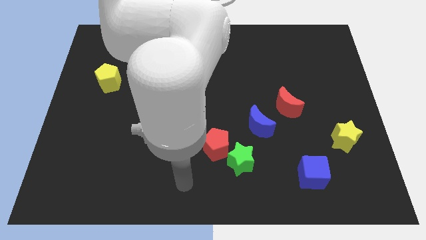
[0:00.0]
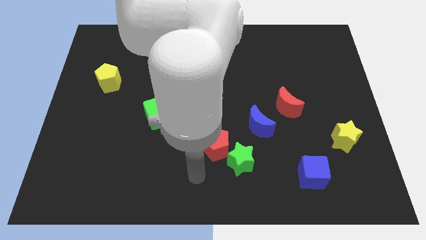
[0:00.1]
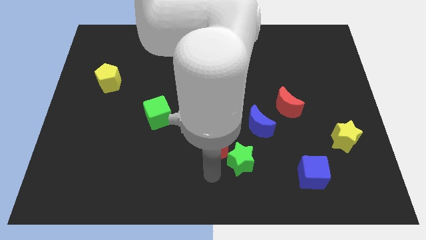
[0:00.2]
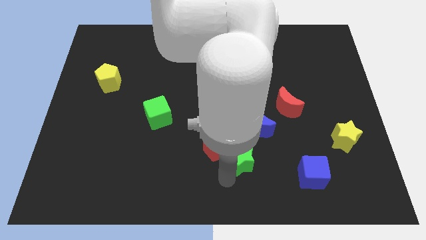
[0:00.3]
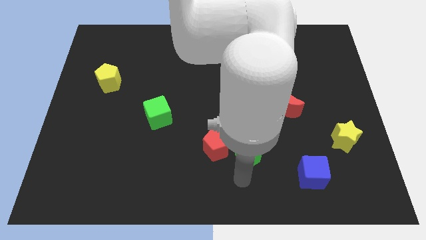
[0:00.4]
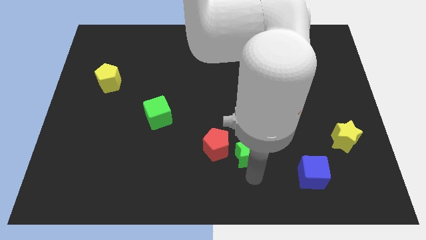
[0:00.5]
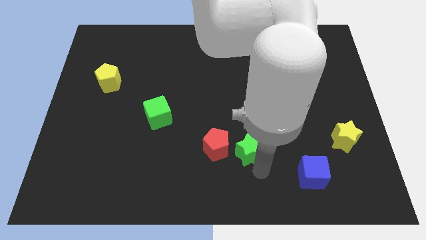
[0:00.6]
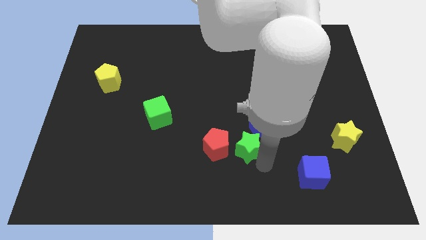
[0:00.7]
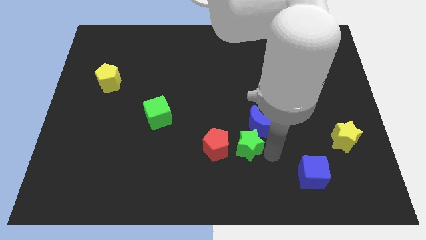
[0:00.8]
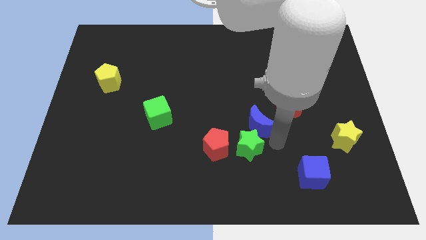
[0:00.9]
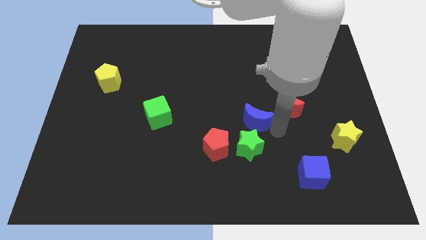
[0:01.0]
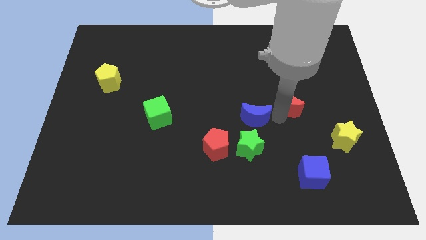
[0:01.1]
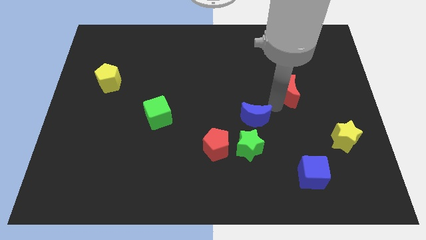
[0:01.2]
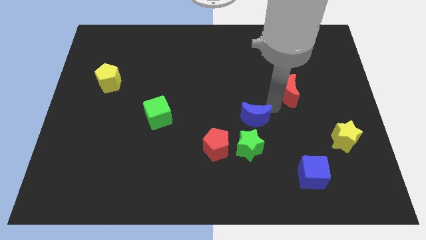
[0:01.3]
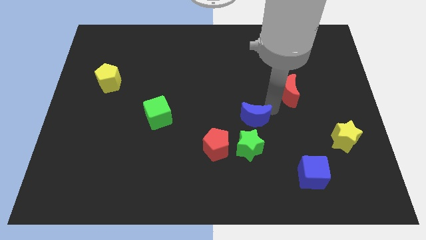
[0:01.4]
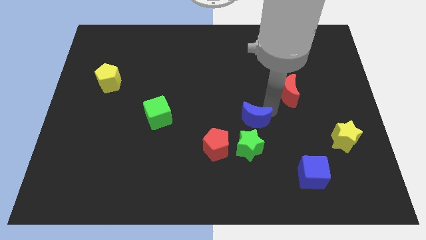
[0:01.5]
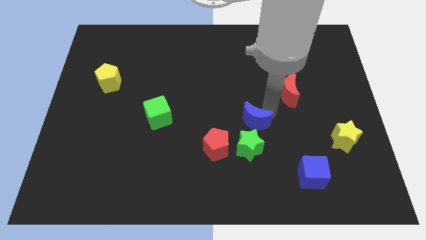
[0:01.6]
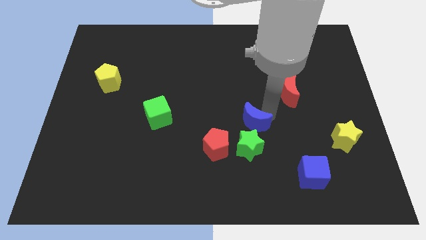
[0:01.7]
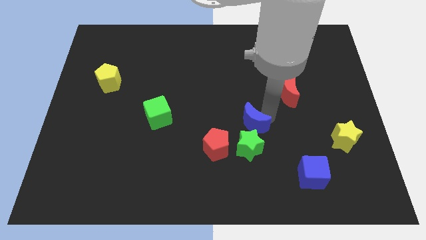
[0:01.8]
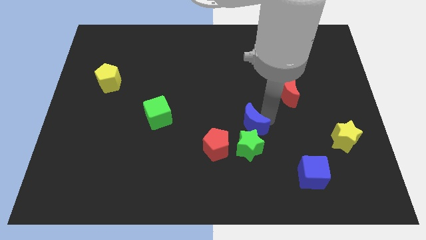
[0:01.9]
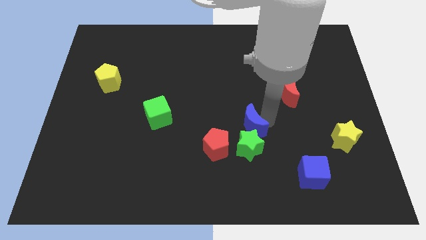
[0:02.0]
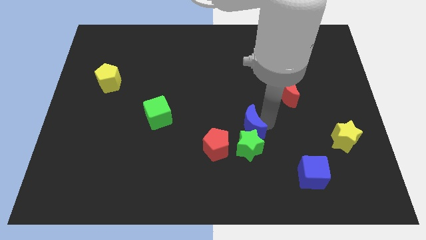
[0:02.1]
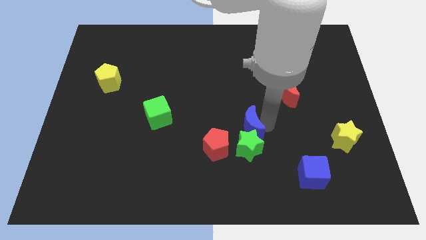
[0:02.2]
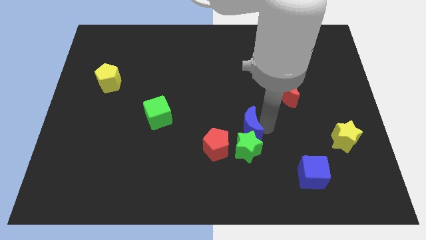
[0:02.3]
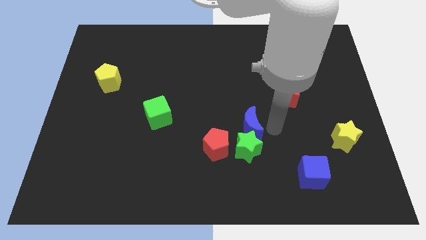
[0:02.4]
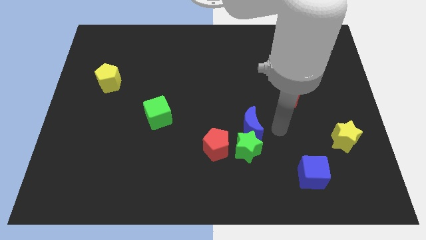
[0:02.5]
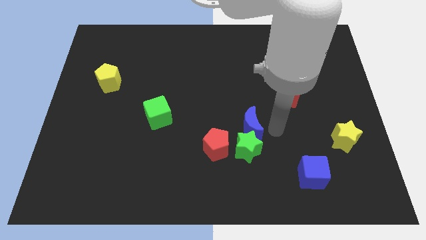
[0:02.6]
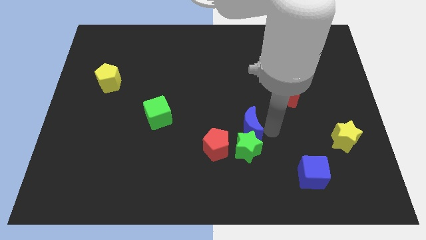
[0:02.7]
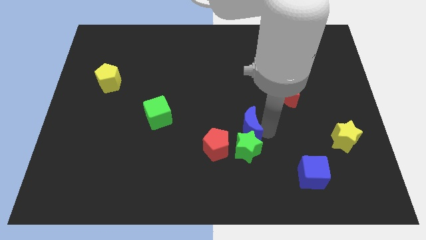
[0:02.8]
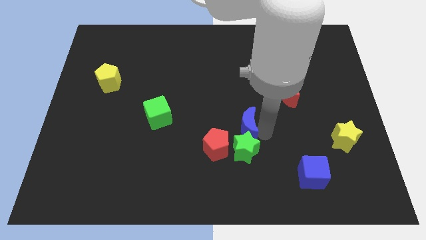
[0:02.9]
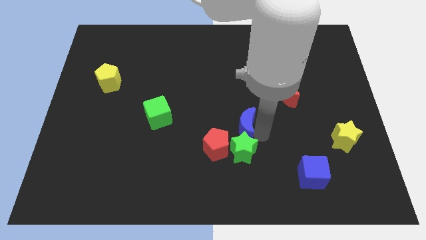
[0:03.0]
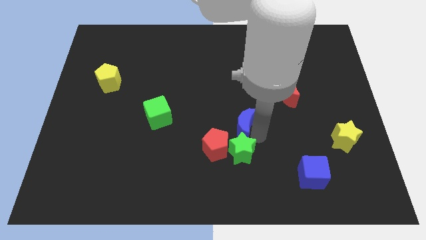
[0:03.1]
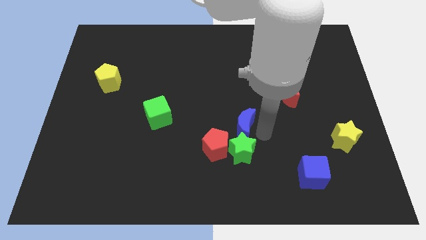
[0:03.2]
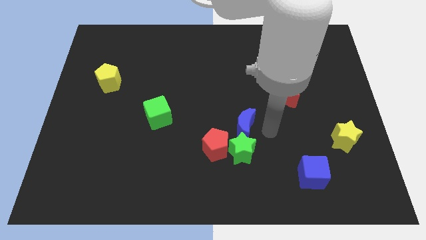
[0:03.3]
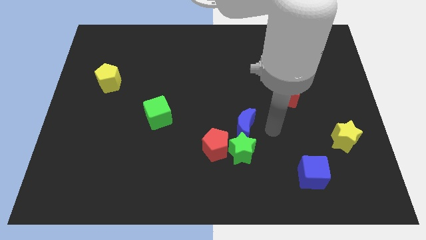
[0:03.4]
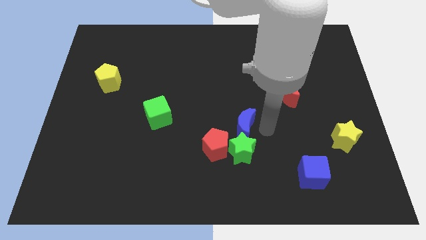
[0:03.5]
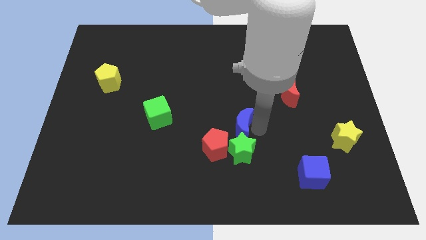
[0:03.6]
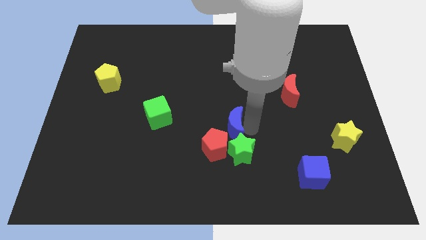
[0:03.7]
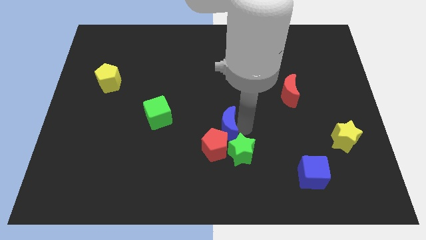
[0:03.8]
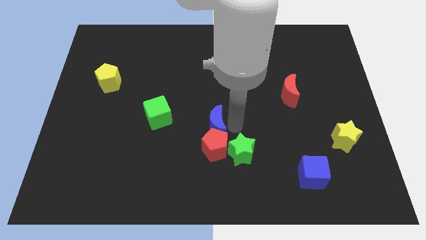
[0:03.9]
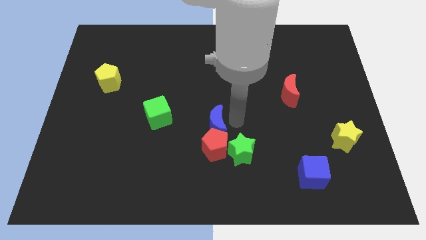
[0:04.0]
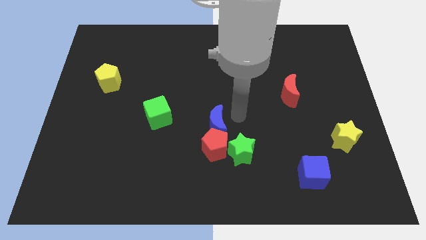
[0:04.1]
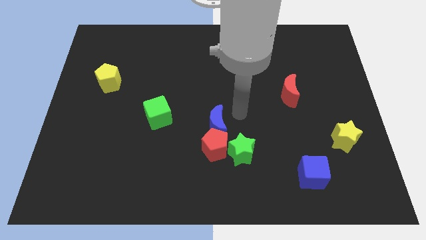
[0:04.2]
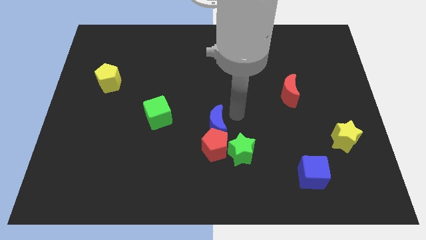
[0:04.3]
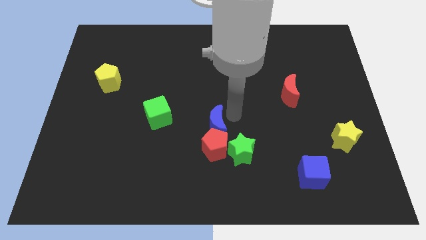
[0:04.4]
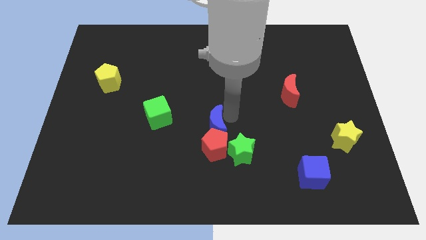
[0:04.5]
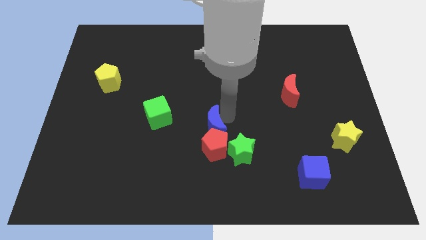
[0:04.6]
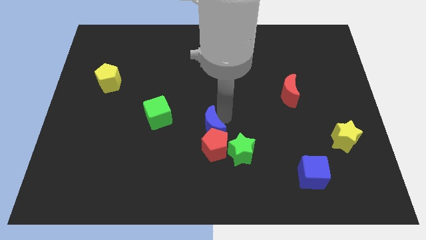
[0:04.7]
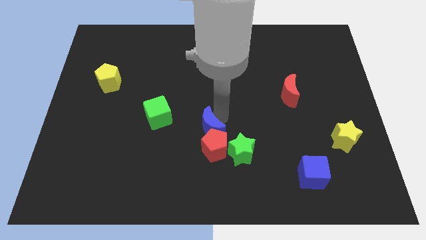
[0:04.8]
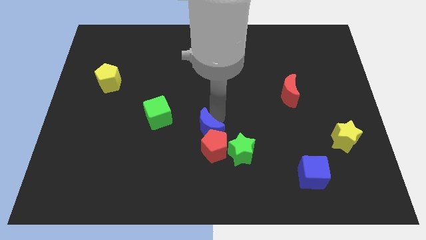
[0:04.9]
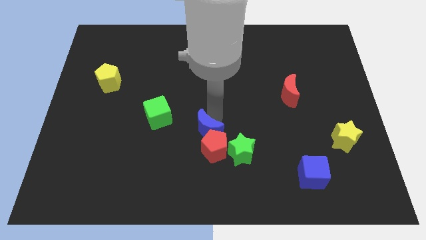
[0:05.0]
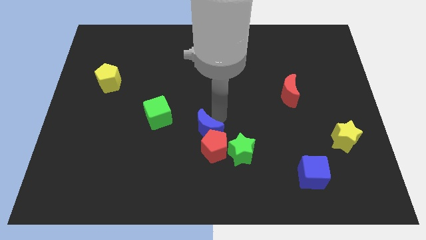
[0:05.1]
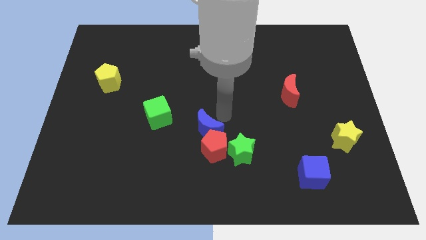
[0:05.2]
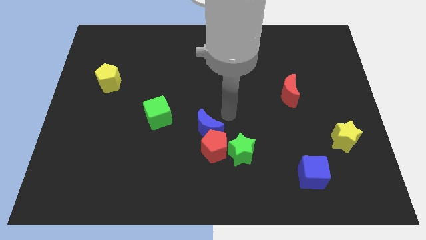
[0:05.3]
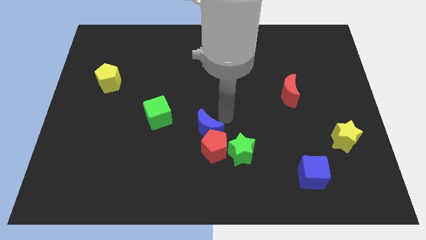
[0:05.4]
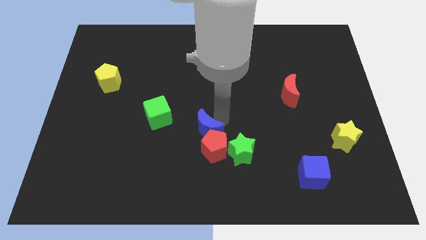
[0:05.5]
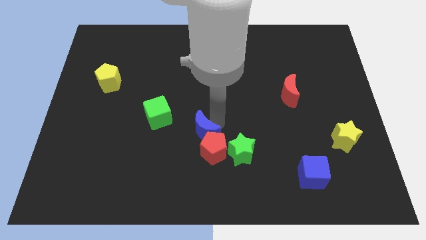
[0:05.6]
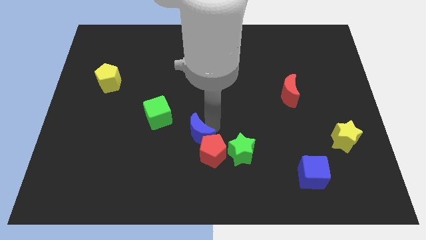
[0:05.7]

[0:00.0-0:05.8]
push the blue moon left of the green star

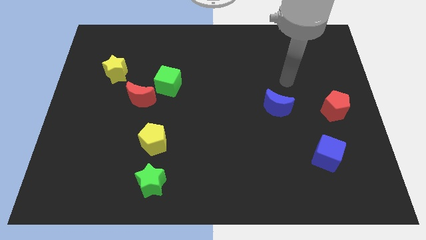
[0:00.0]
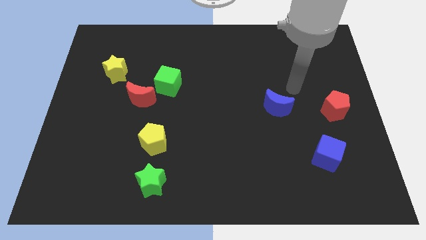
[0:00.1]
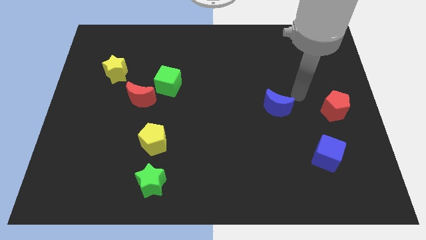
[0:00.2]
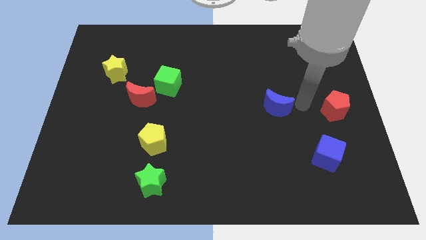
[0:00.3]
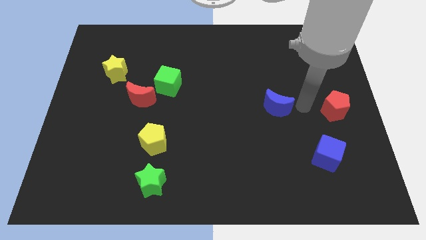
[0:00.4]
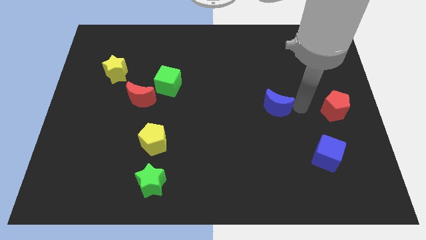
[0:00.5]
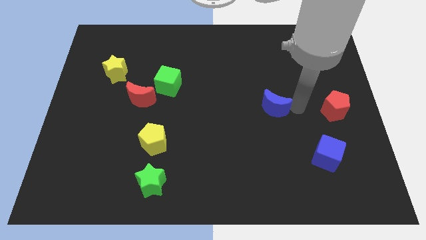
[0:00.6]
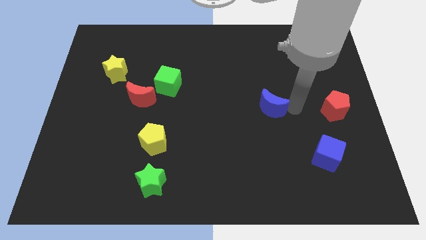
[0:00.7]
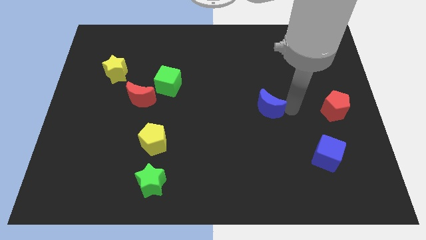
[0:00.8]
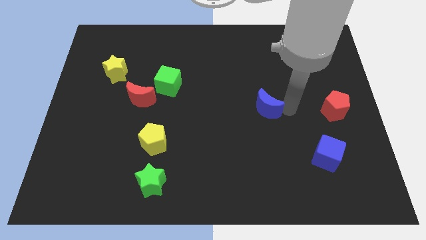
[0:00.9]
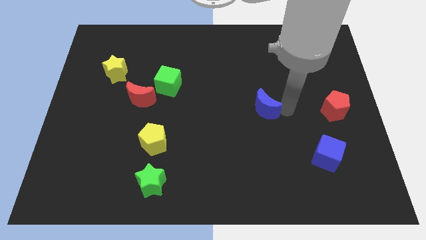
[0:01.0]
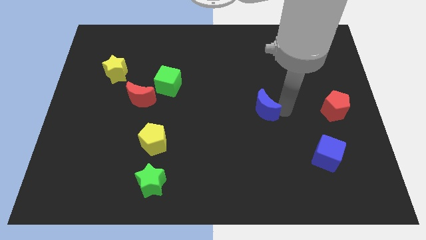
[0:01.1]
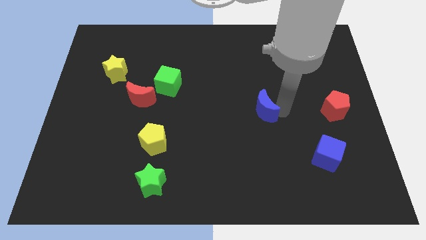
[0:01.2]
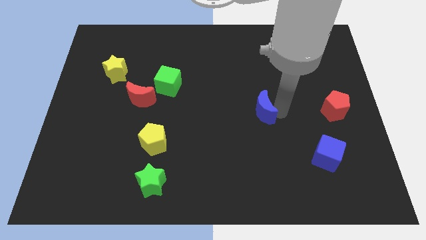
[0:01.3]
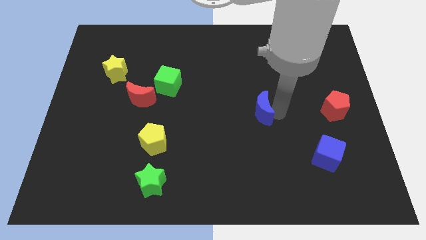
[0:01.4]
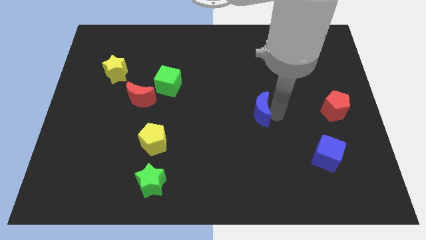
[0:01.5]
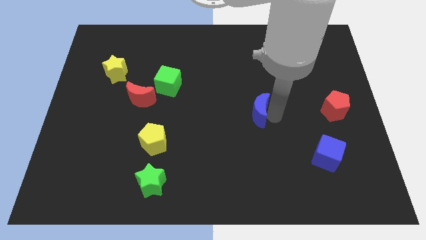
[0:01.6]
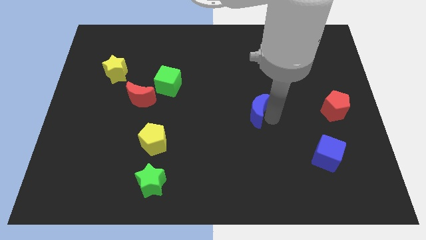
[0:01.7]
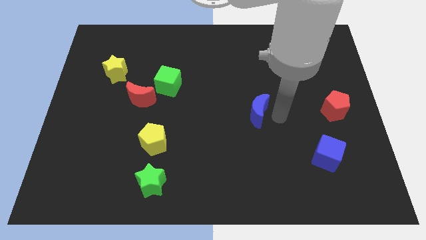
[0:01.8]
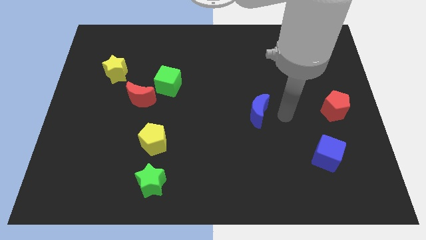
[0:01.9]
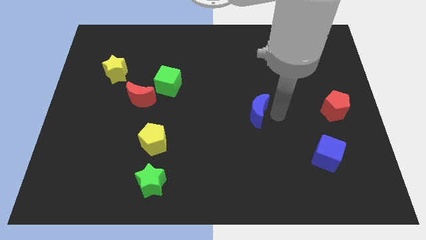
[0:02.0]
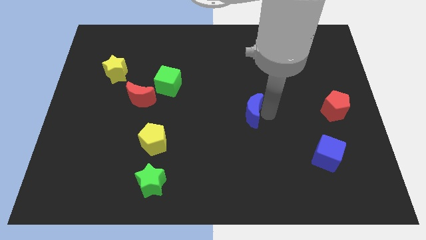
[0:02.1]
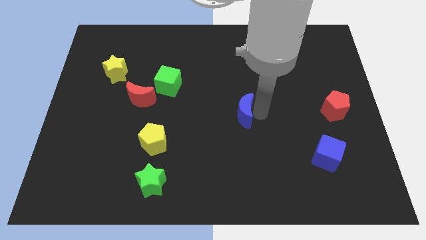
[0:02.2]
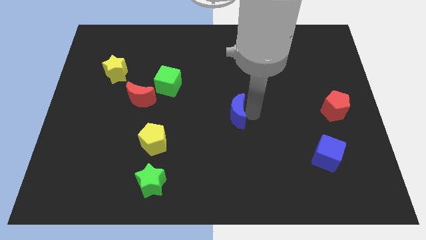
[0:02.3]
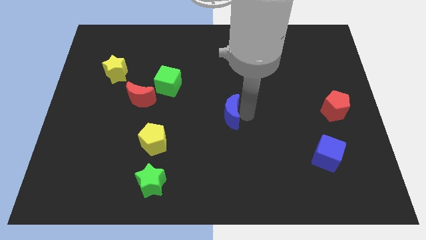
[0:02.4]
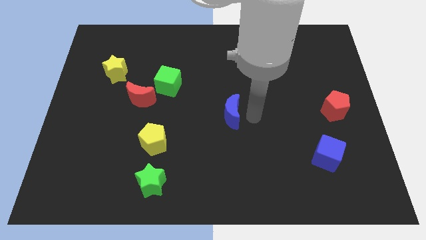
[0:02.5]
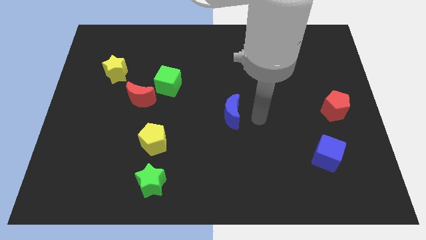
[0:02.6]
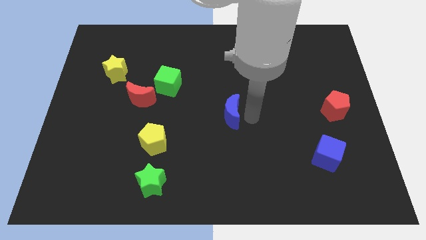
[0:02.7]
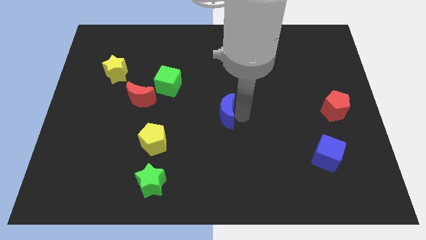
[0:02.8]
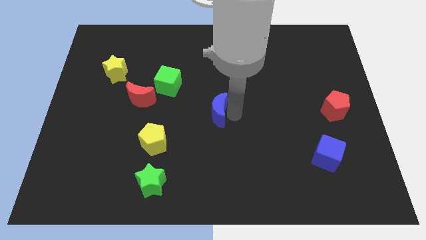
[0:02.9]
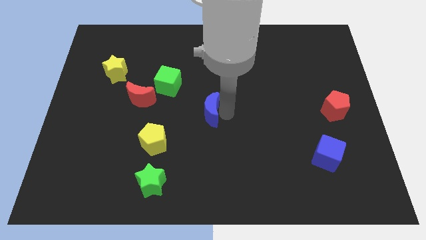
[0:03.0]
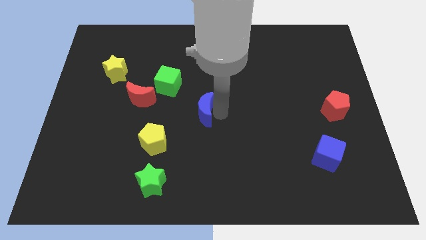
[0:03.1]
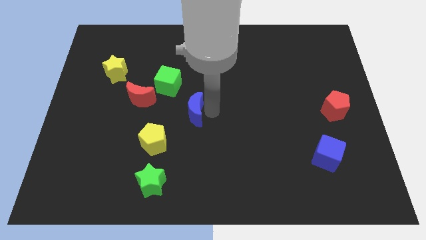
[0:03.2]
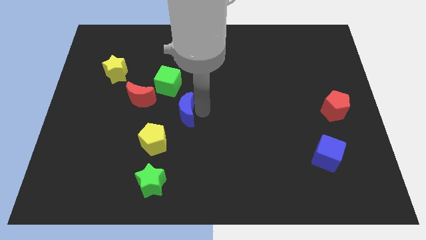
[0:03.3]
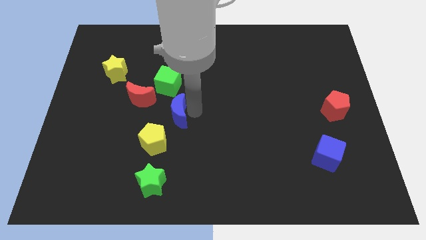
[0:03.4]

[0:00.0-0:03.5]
move the blue moon to the bottom right side of the red moon
